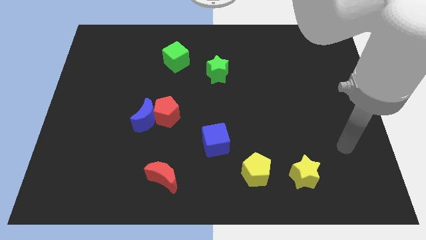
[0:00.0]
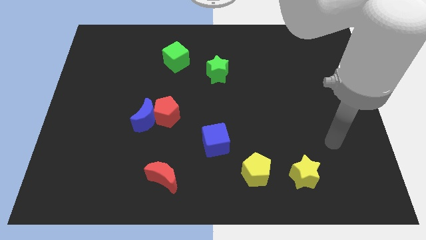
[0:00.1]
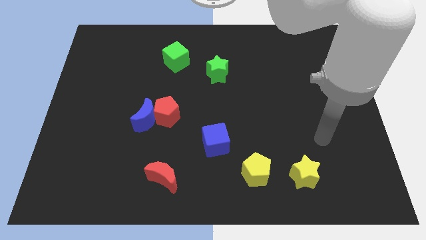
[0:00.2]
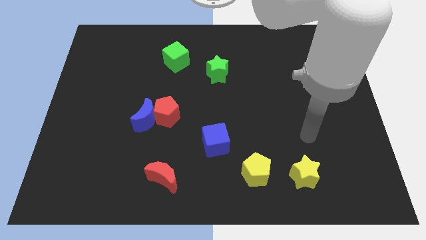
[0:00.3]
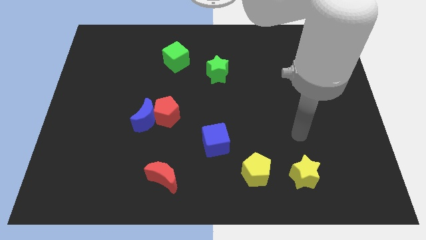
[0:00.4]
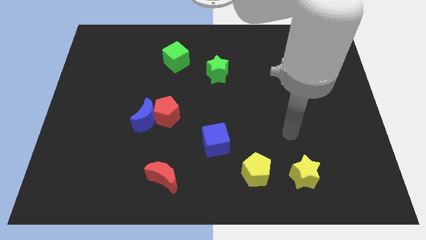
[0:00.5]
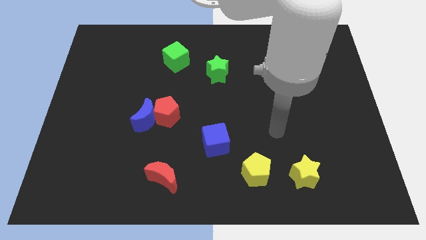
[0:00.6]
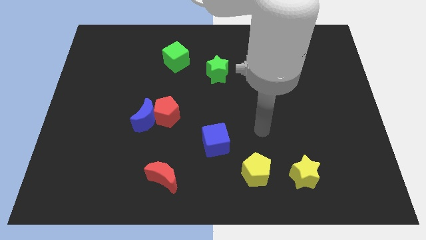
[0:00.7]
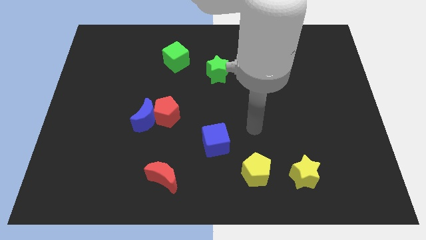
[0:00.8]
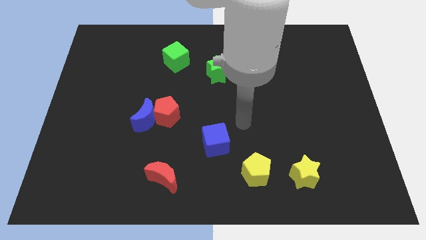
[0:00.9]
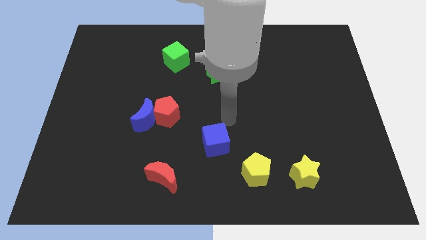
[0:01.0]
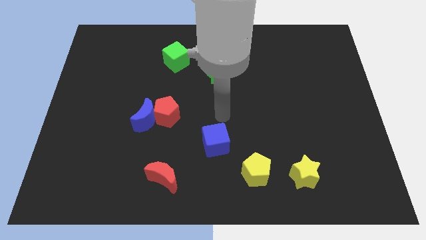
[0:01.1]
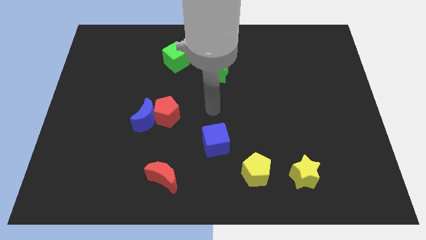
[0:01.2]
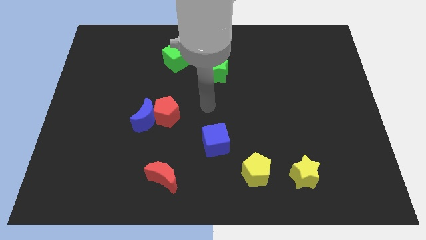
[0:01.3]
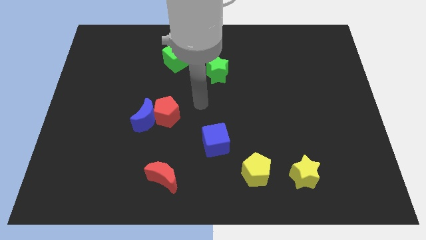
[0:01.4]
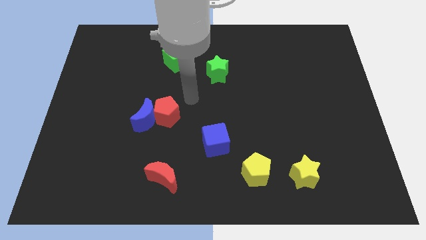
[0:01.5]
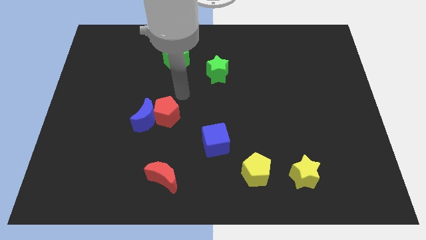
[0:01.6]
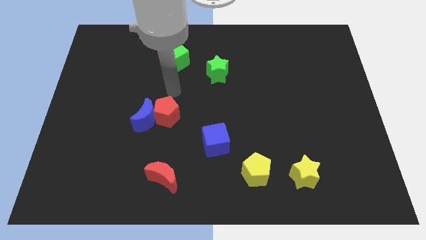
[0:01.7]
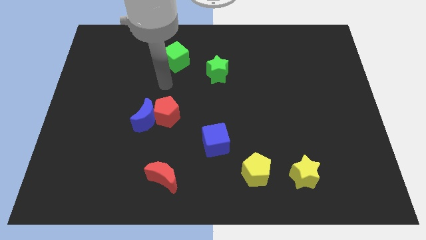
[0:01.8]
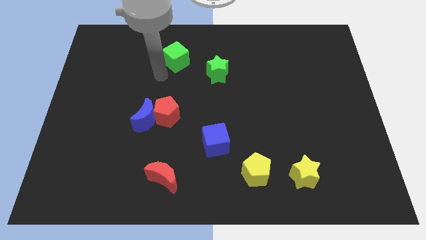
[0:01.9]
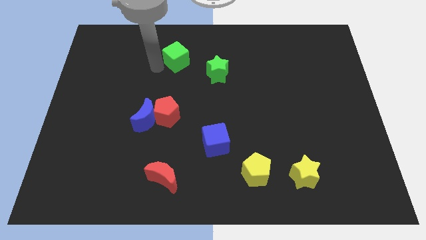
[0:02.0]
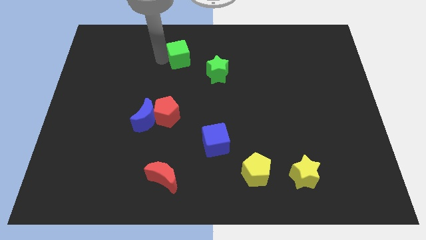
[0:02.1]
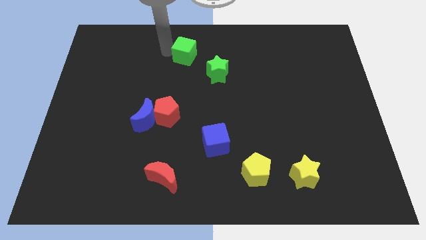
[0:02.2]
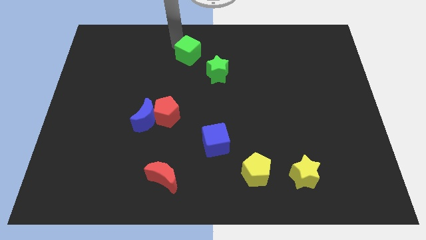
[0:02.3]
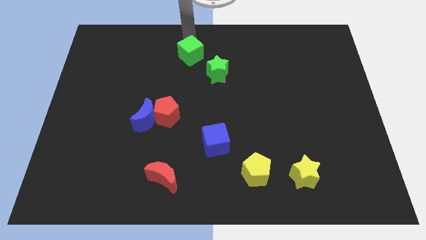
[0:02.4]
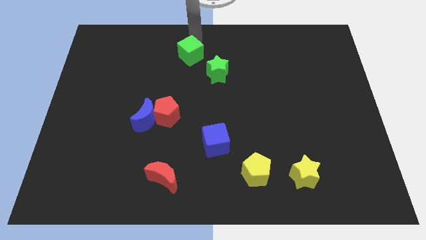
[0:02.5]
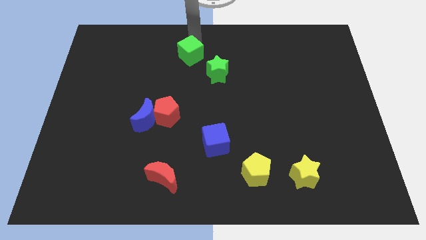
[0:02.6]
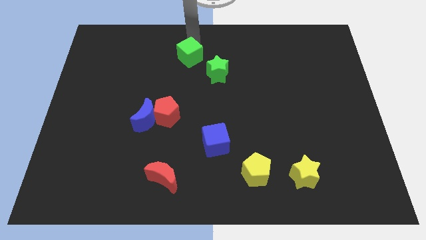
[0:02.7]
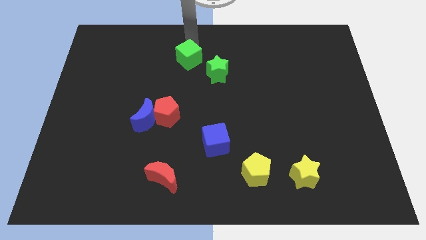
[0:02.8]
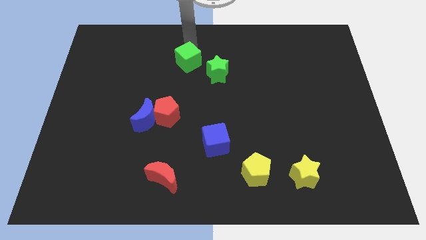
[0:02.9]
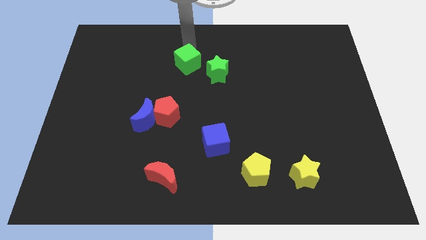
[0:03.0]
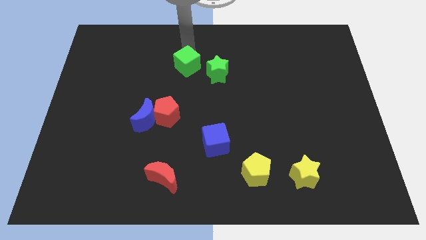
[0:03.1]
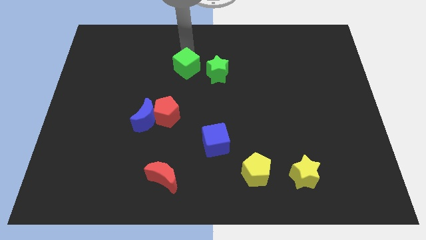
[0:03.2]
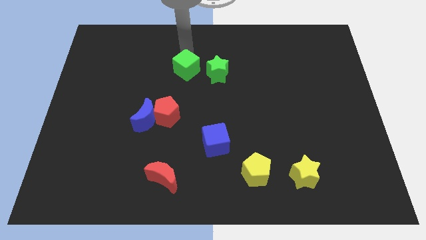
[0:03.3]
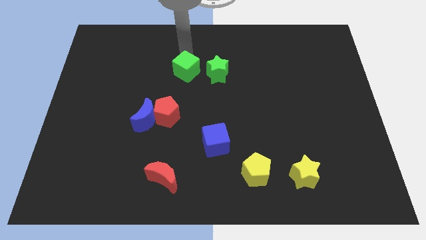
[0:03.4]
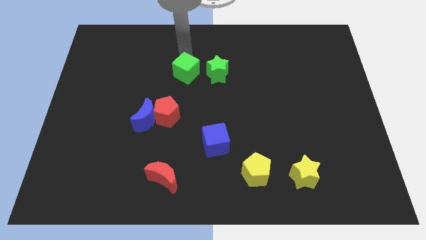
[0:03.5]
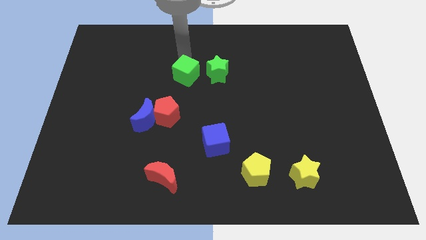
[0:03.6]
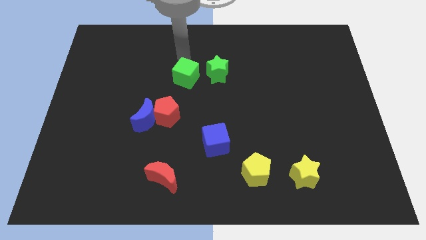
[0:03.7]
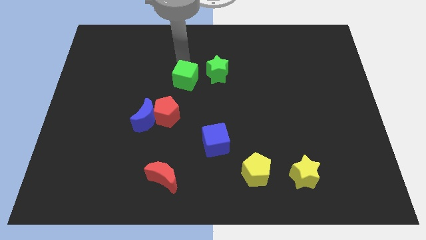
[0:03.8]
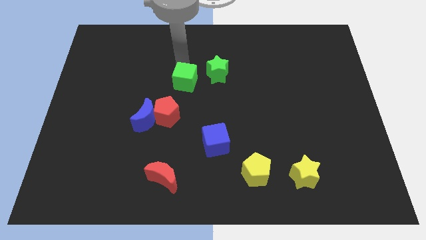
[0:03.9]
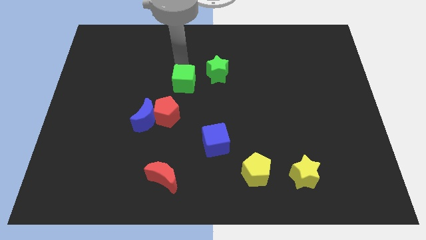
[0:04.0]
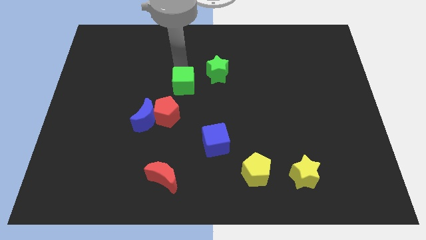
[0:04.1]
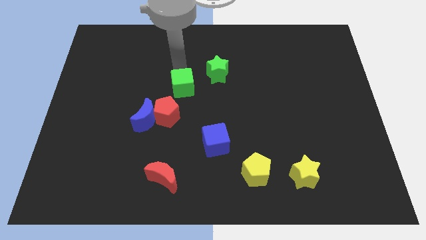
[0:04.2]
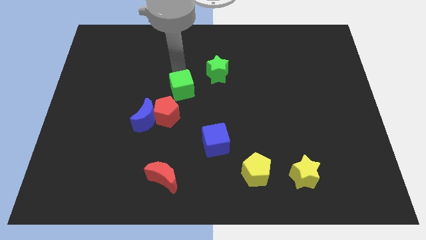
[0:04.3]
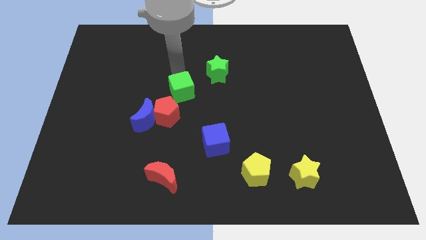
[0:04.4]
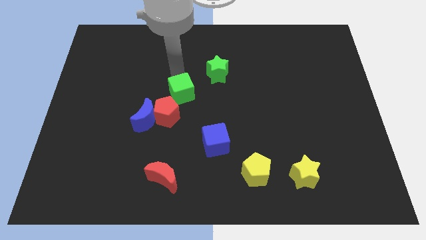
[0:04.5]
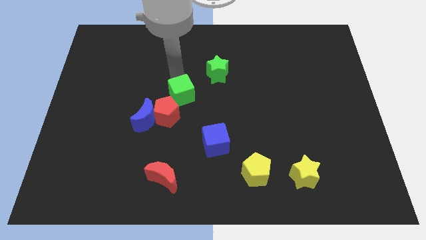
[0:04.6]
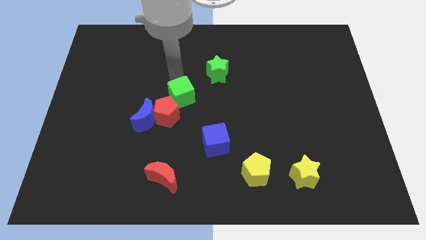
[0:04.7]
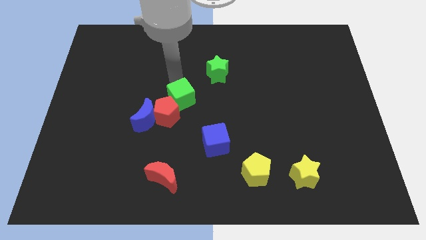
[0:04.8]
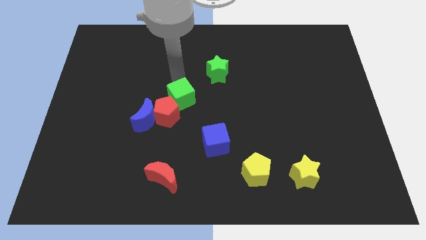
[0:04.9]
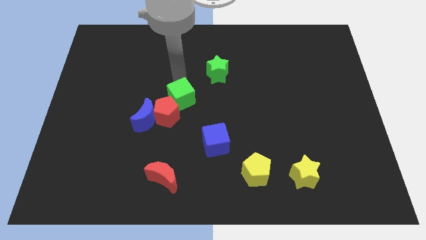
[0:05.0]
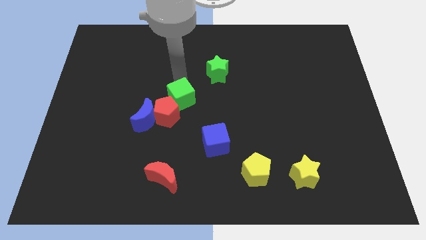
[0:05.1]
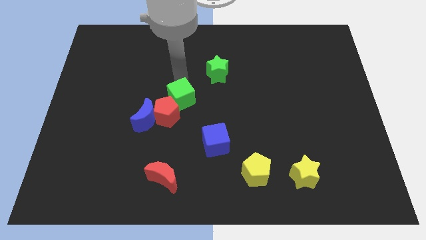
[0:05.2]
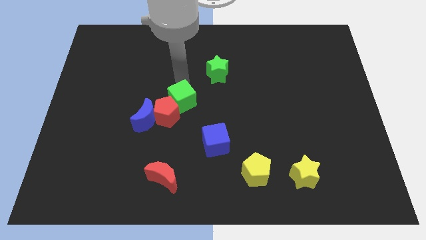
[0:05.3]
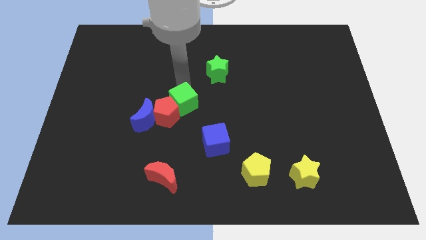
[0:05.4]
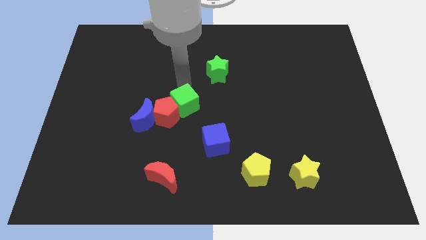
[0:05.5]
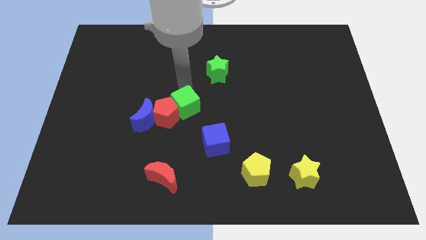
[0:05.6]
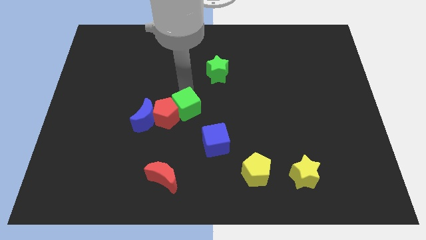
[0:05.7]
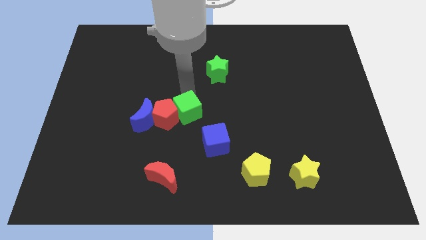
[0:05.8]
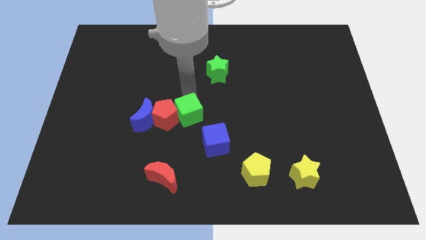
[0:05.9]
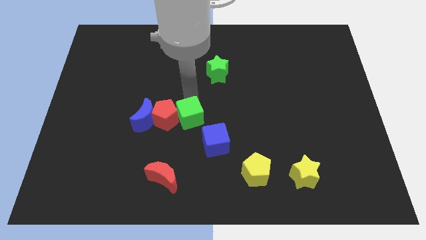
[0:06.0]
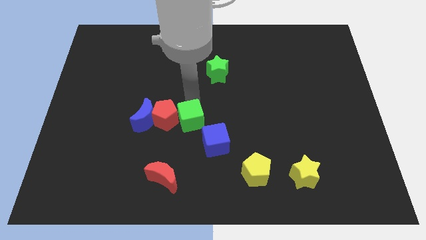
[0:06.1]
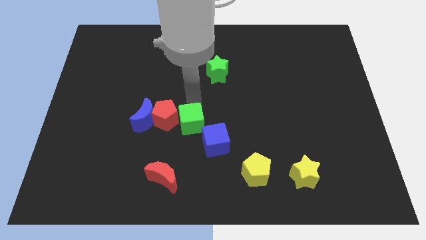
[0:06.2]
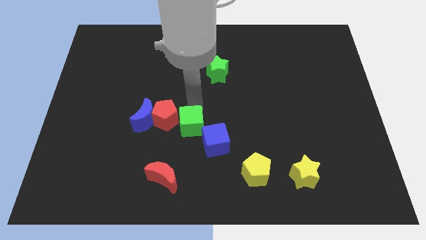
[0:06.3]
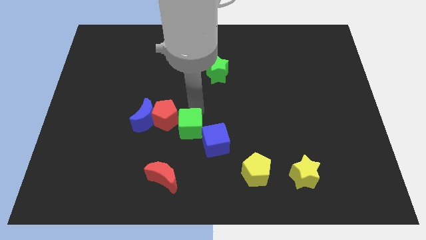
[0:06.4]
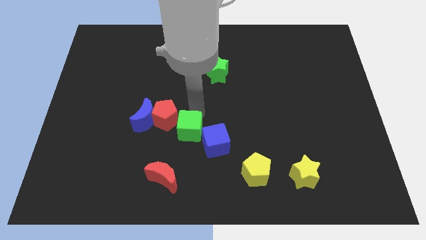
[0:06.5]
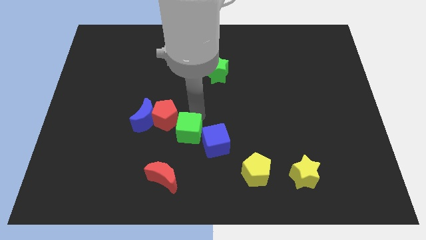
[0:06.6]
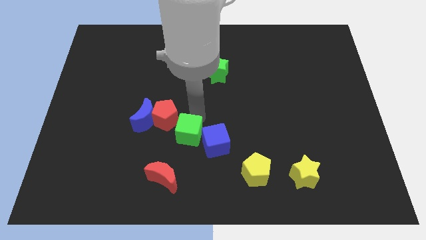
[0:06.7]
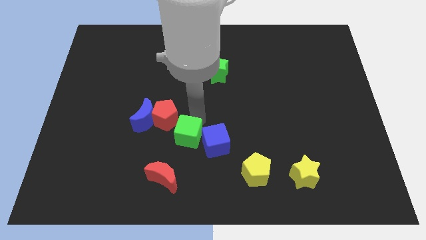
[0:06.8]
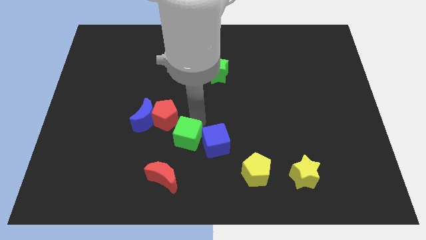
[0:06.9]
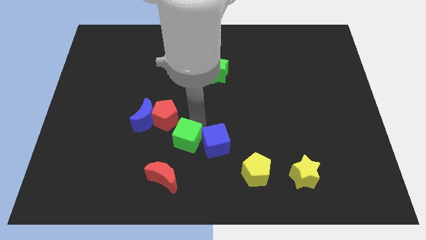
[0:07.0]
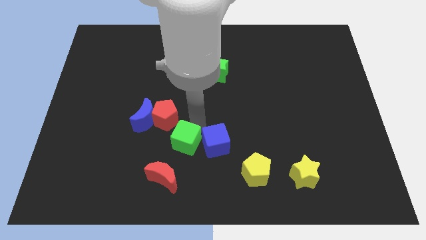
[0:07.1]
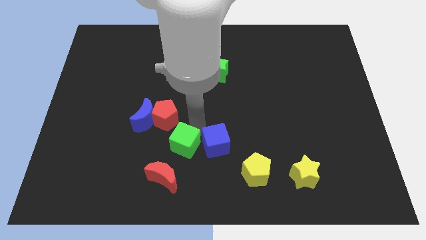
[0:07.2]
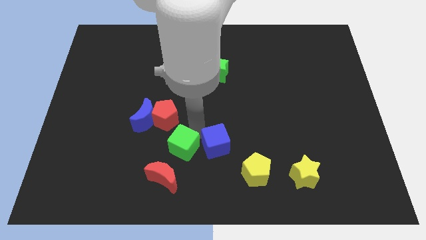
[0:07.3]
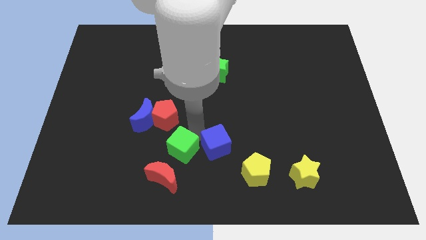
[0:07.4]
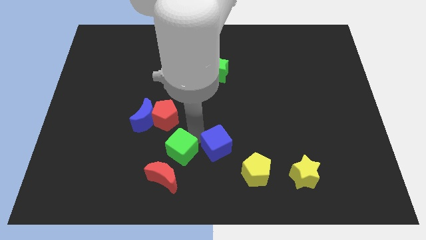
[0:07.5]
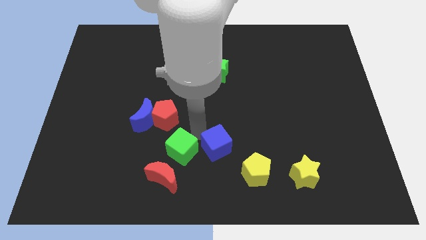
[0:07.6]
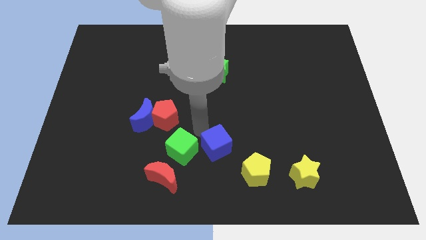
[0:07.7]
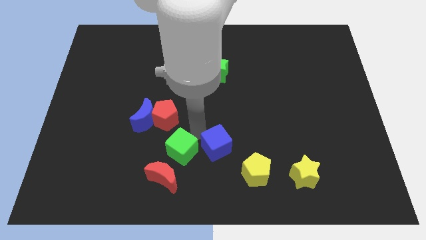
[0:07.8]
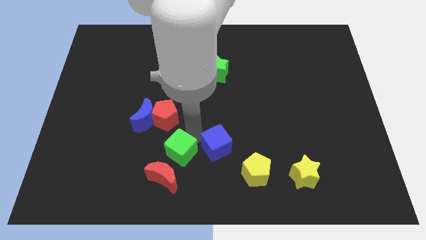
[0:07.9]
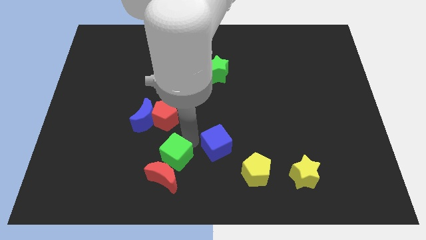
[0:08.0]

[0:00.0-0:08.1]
push the green cube towards the red moon
